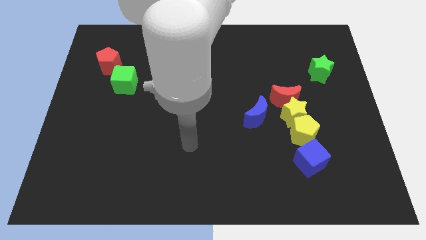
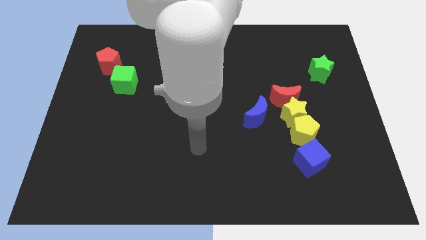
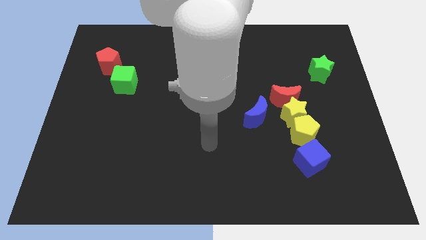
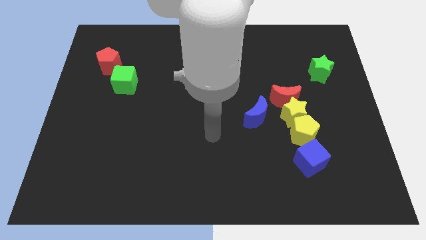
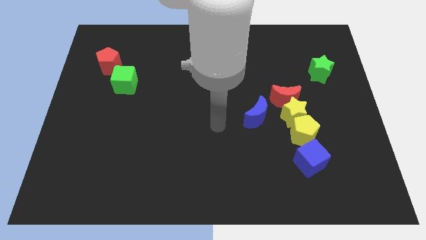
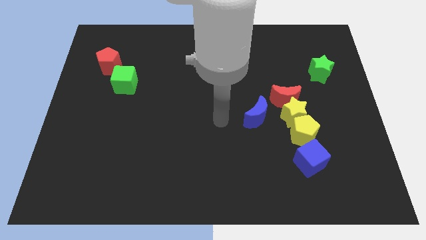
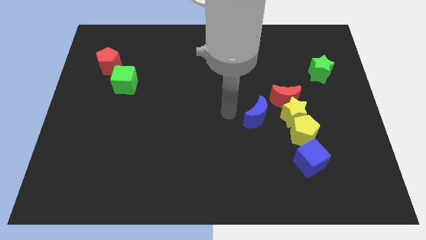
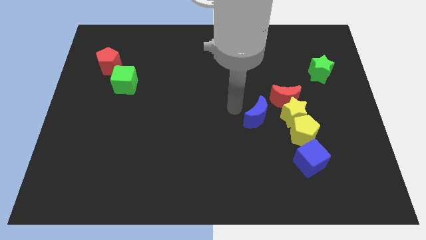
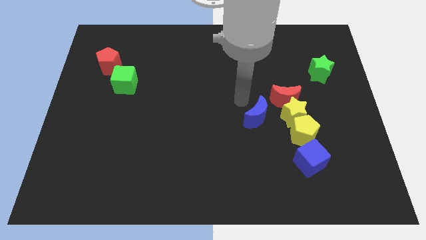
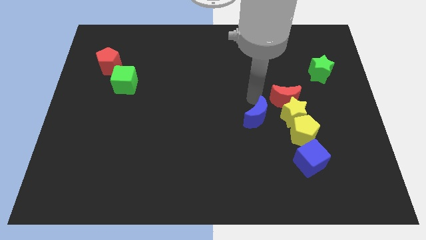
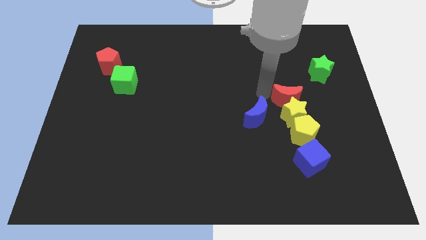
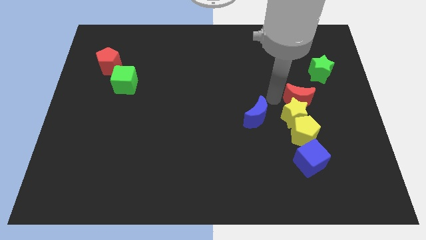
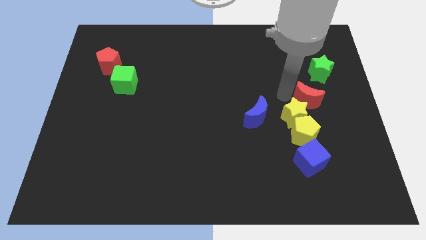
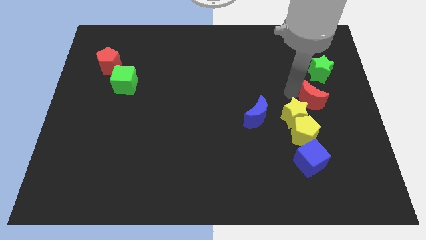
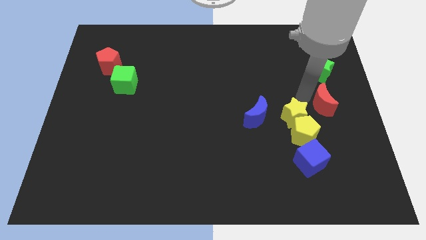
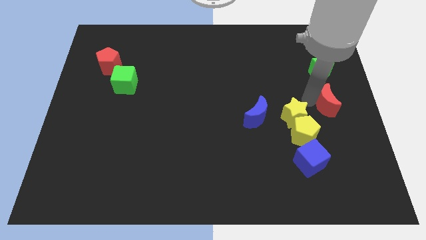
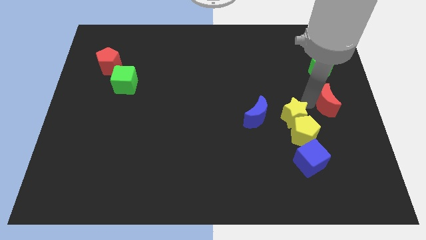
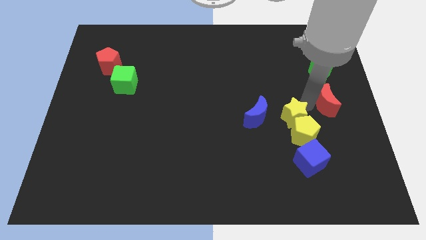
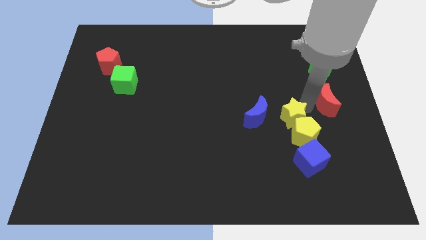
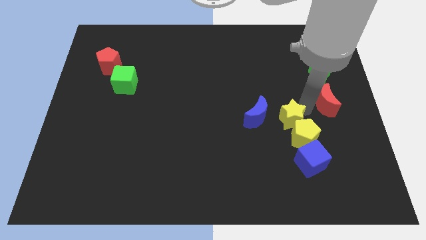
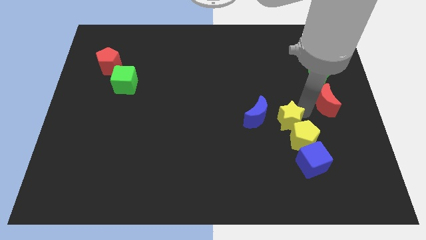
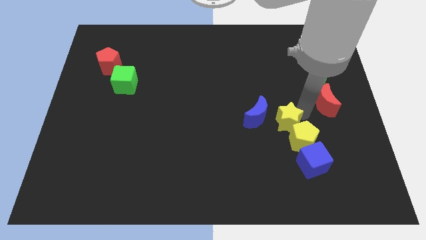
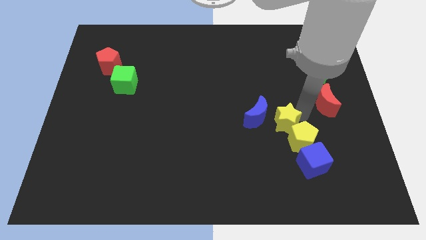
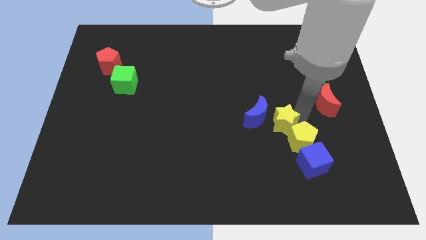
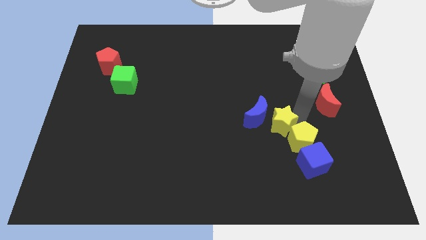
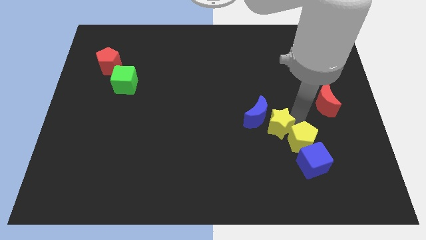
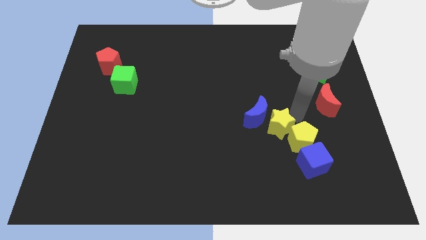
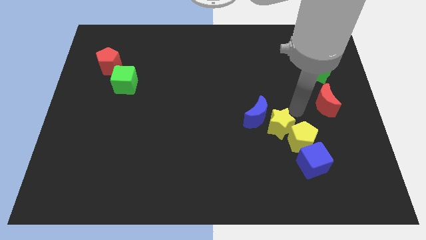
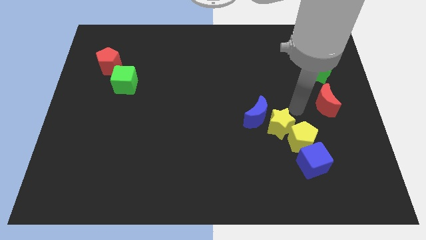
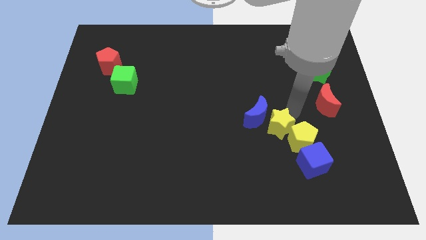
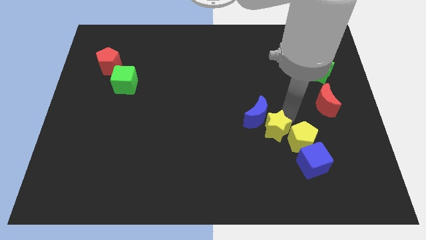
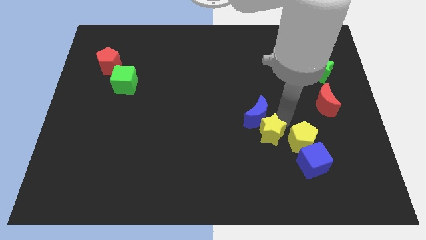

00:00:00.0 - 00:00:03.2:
push the yellow star somewhat down and left diagonally

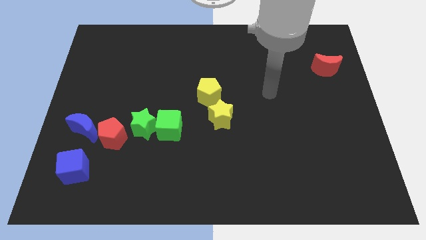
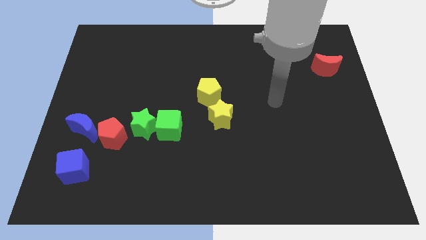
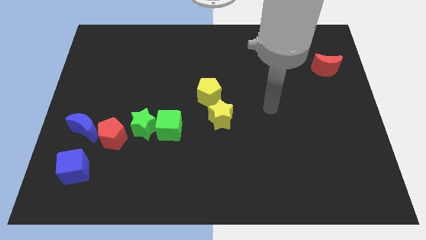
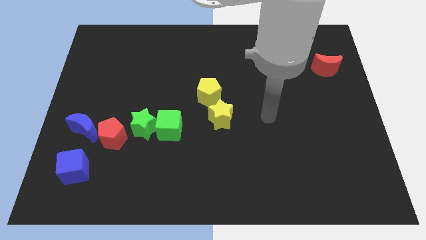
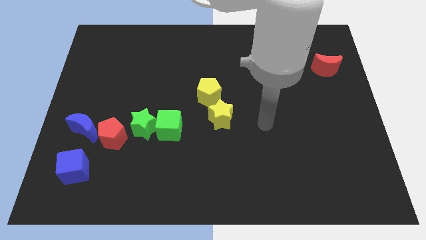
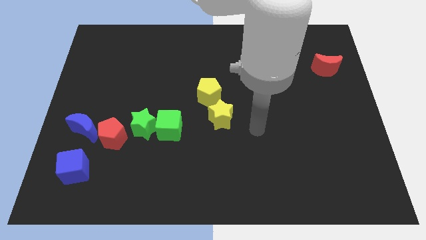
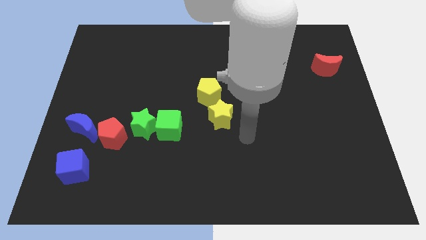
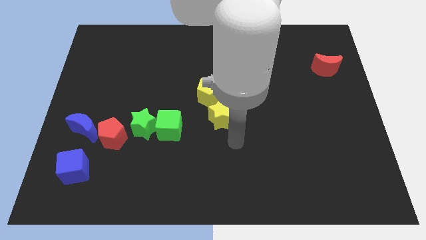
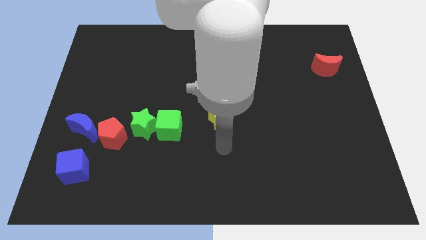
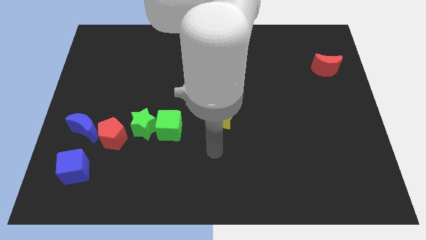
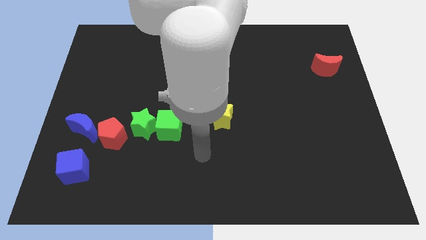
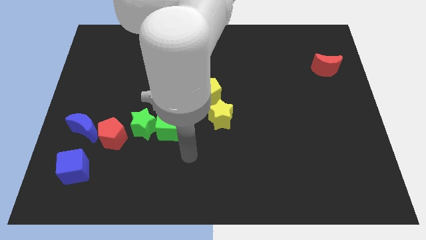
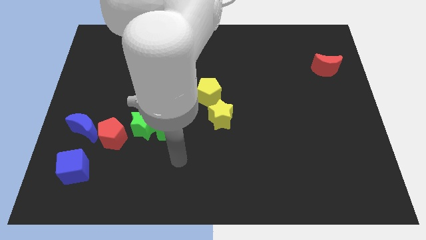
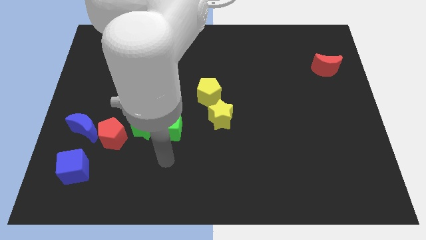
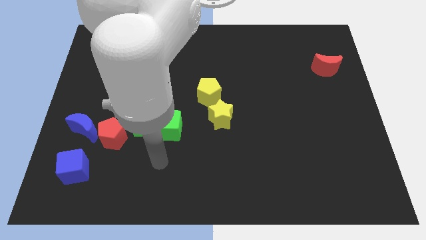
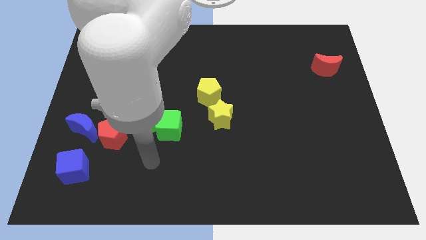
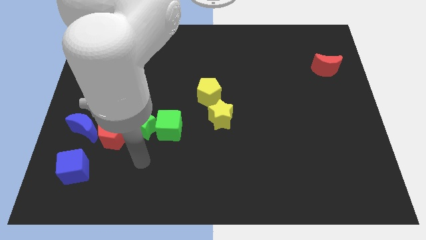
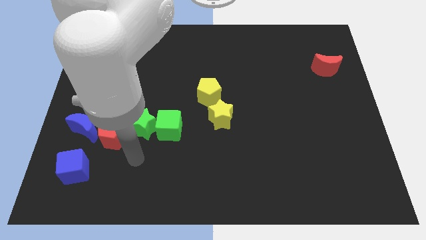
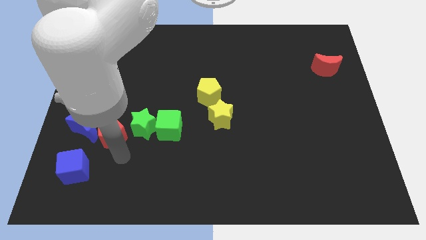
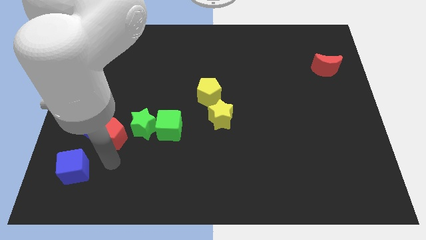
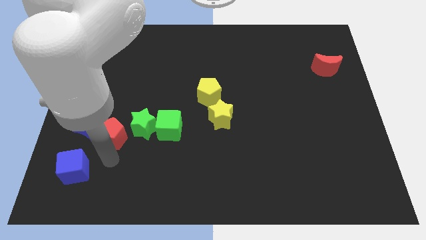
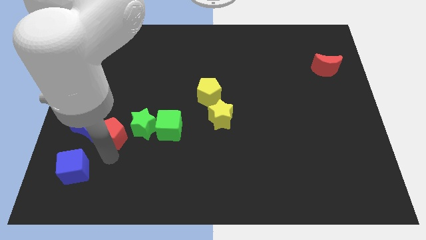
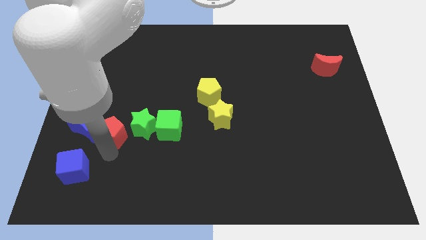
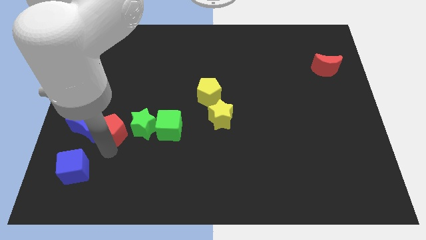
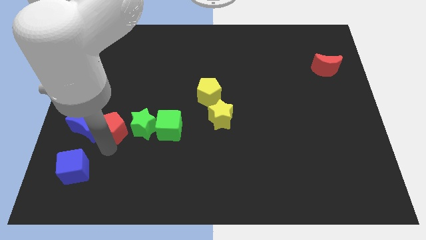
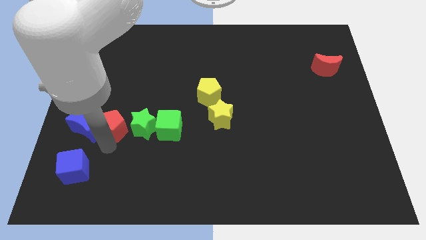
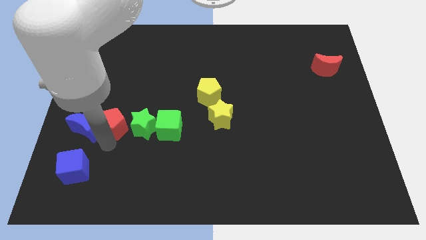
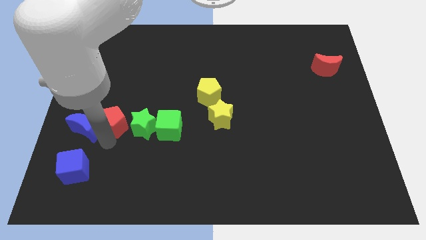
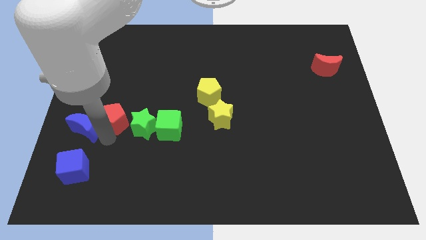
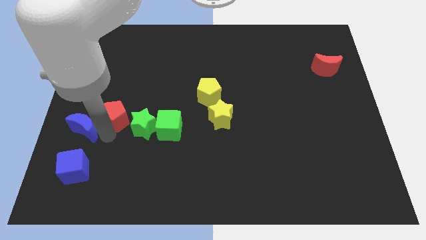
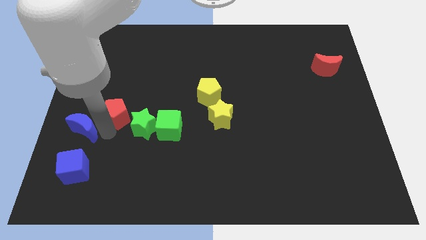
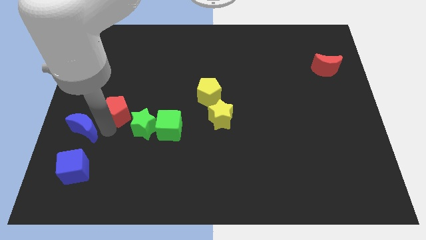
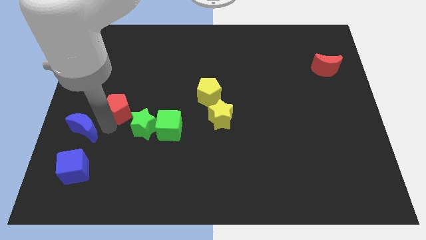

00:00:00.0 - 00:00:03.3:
slightly push the red pentagon upwards

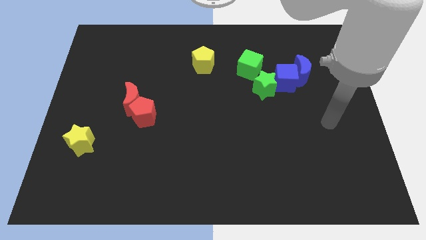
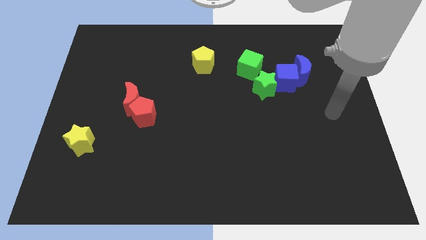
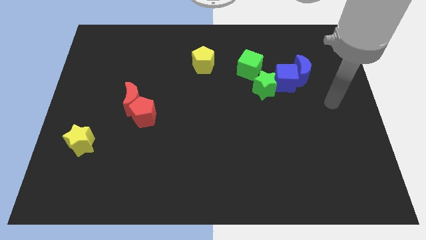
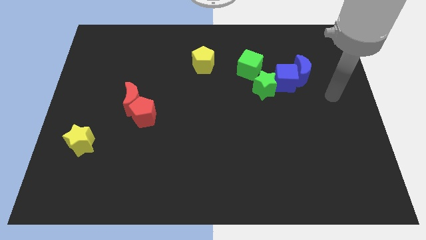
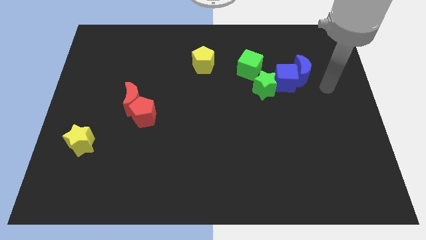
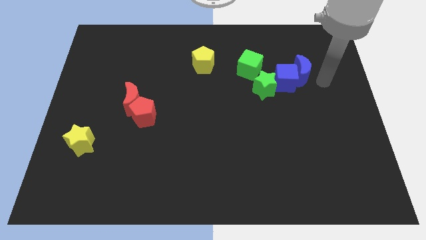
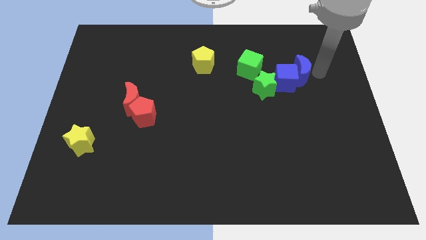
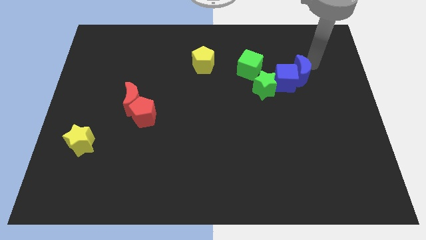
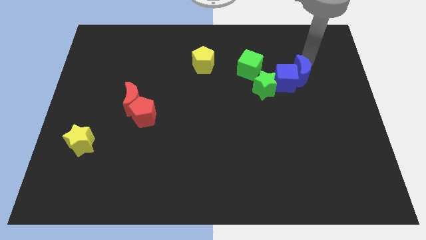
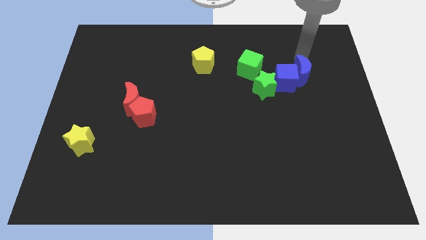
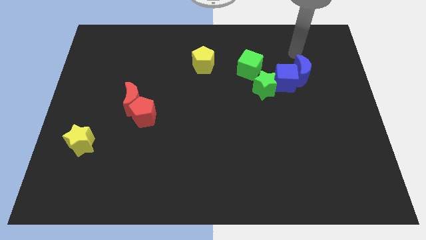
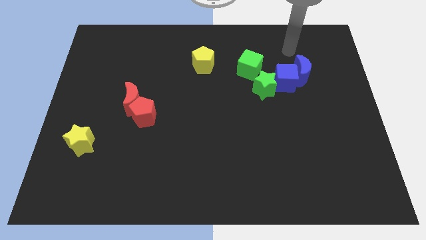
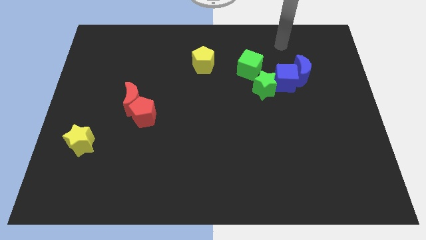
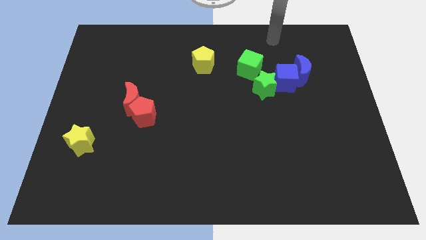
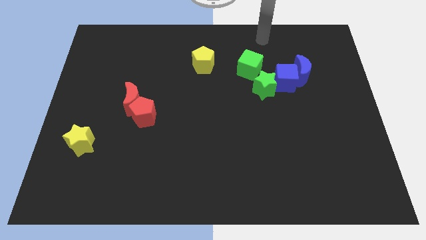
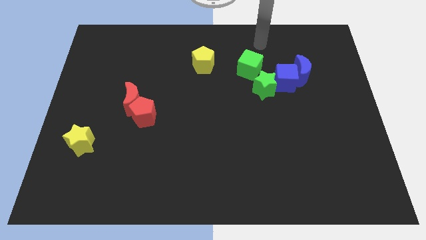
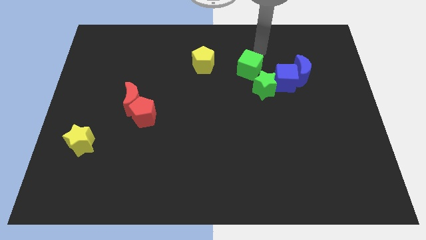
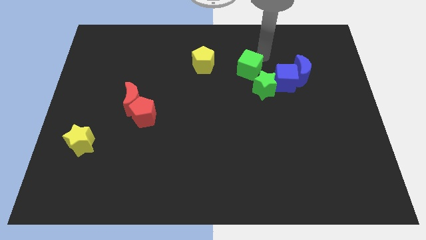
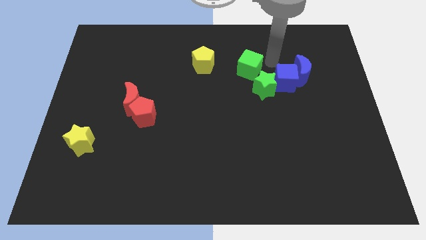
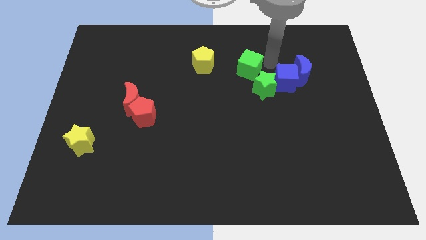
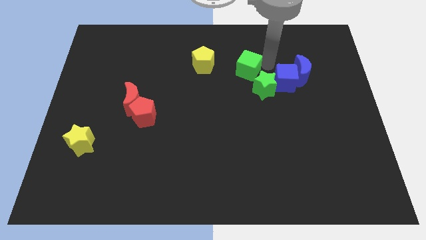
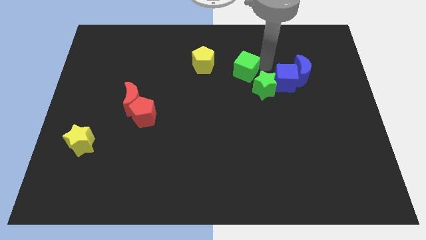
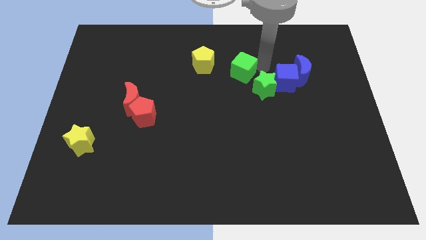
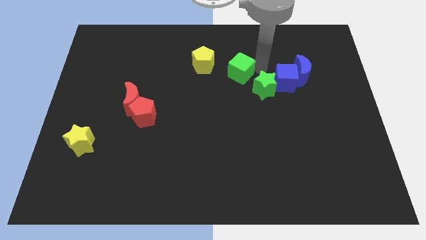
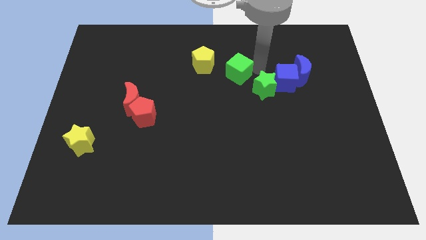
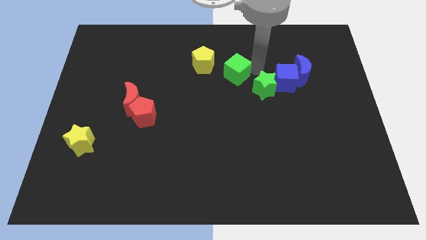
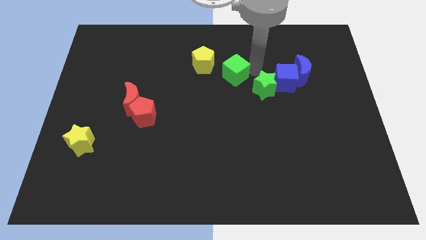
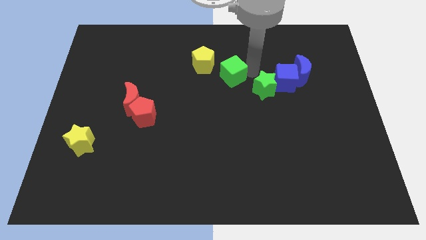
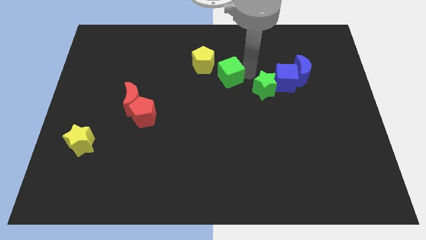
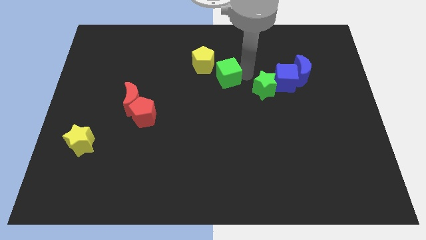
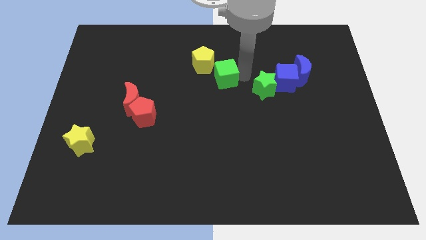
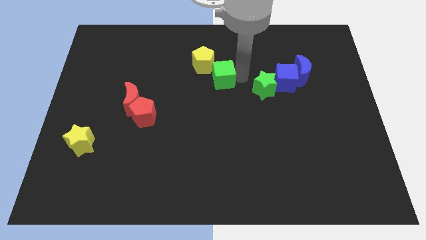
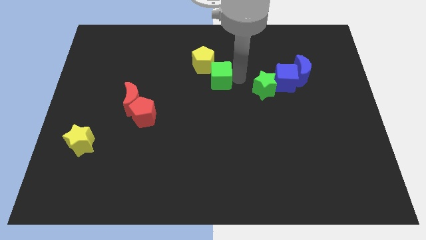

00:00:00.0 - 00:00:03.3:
move the green cube a little bit to the left
